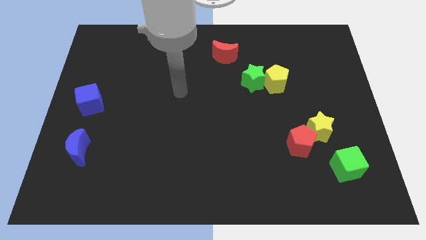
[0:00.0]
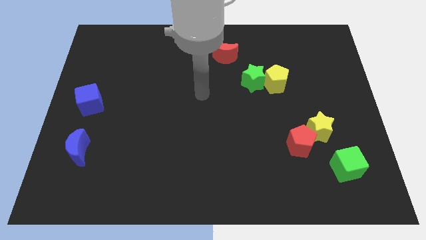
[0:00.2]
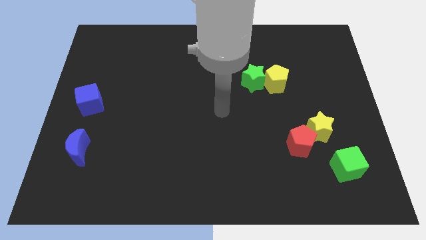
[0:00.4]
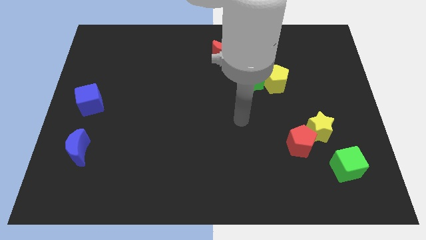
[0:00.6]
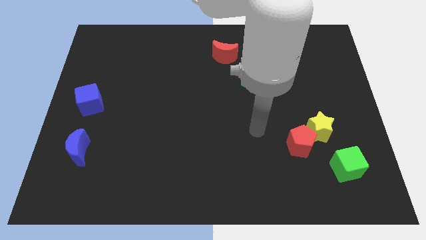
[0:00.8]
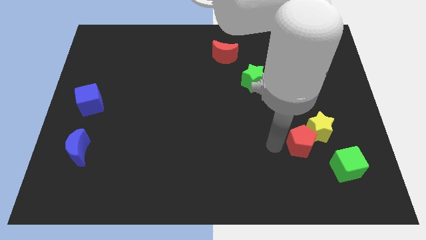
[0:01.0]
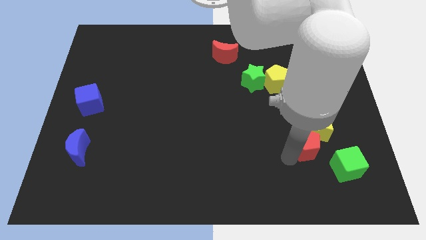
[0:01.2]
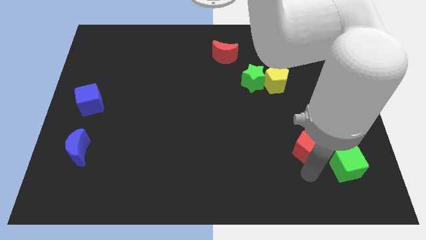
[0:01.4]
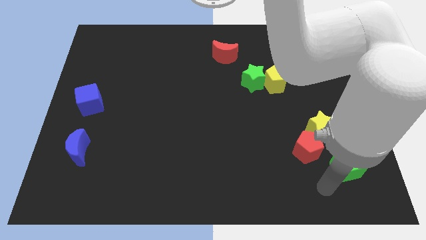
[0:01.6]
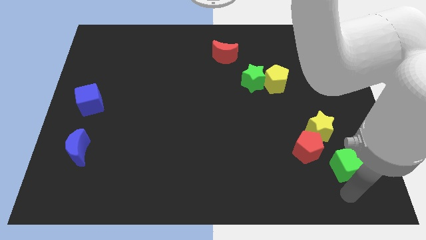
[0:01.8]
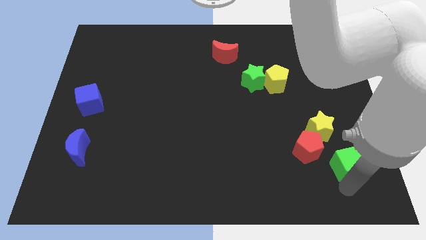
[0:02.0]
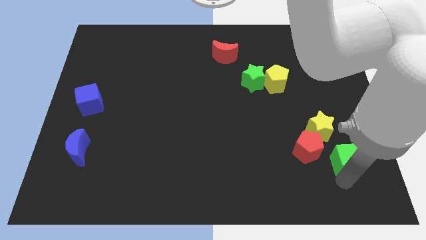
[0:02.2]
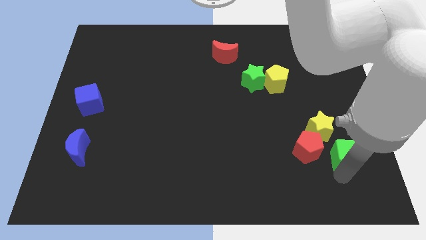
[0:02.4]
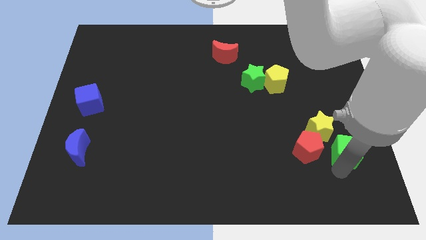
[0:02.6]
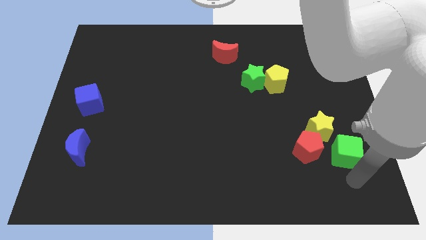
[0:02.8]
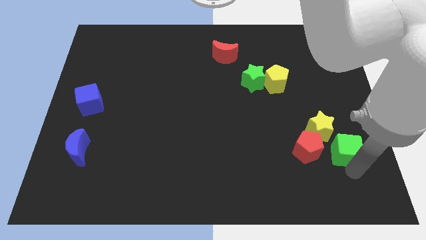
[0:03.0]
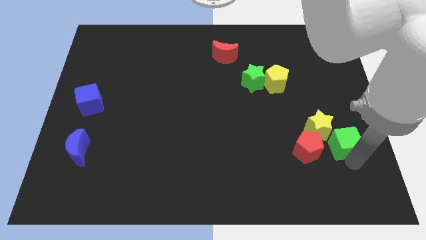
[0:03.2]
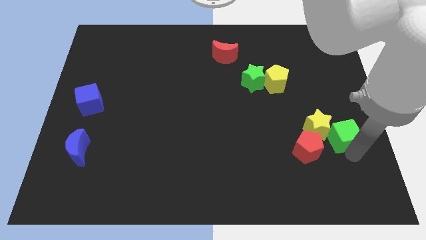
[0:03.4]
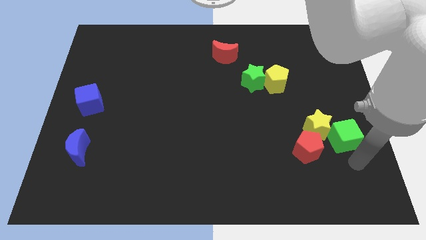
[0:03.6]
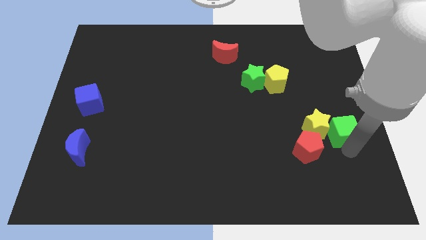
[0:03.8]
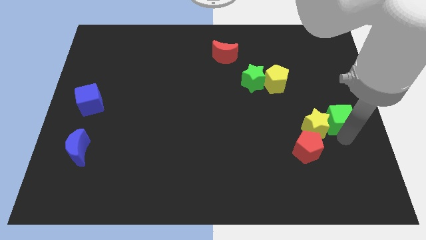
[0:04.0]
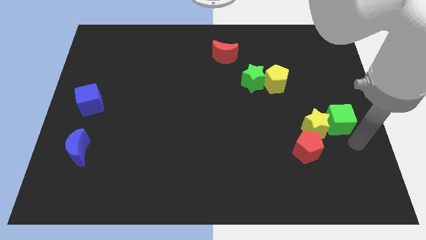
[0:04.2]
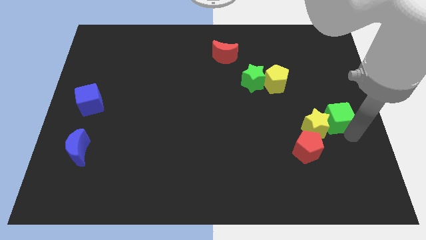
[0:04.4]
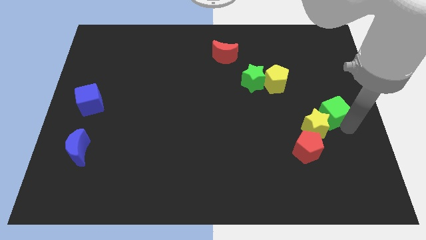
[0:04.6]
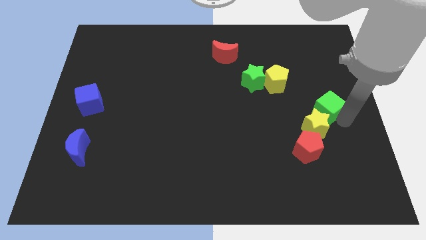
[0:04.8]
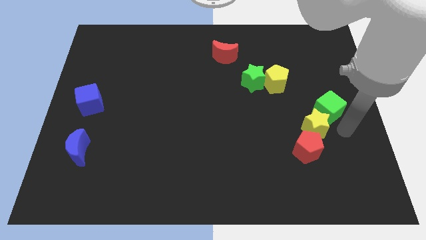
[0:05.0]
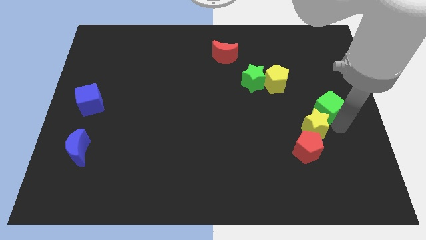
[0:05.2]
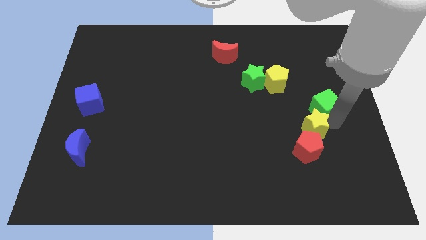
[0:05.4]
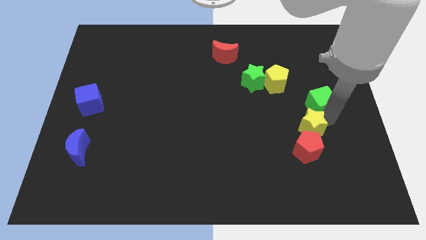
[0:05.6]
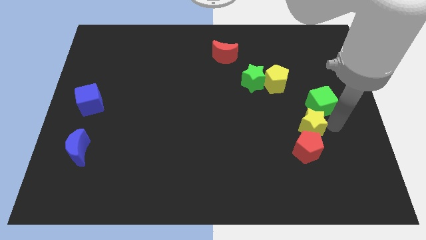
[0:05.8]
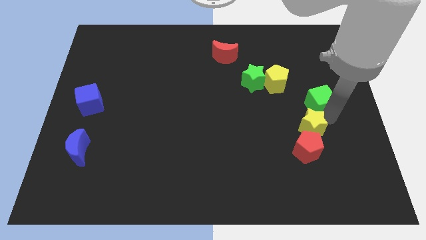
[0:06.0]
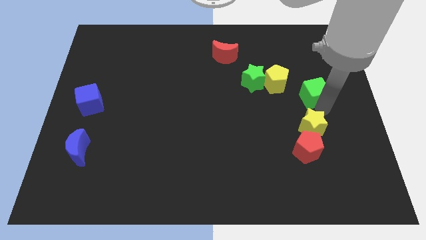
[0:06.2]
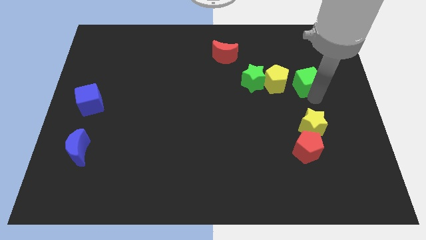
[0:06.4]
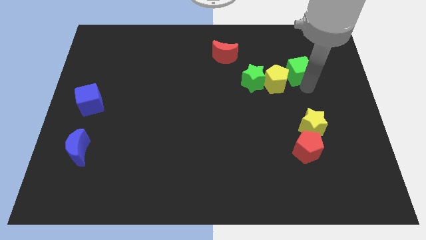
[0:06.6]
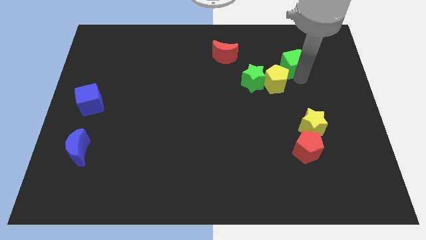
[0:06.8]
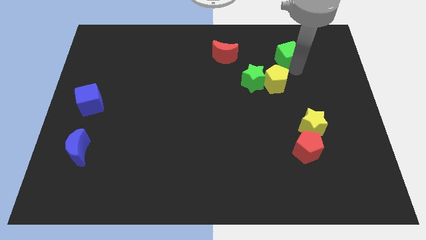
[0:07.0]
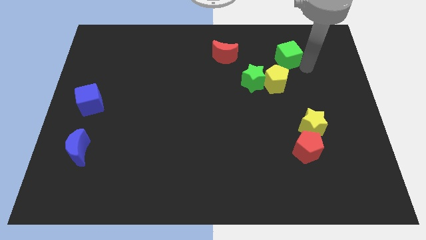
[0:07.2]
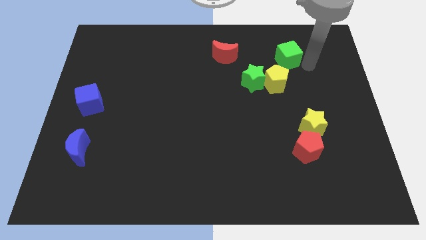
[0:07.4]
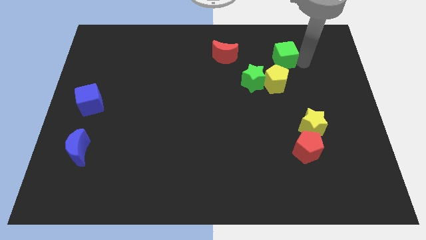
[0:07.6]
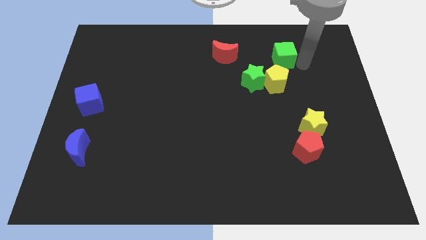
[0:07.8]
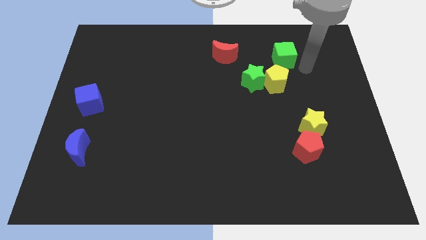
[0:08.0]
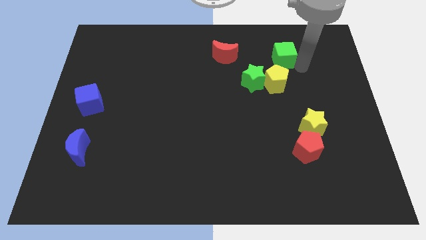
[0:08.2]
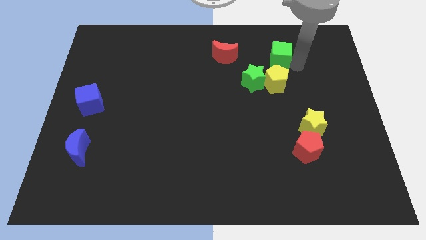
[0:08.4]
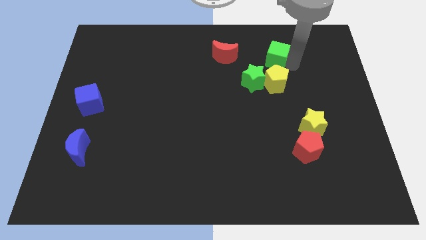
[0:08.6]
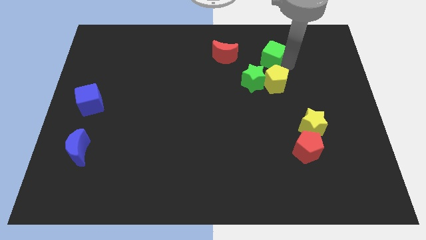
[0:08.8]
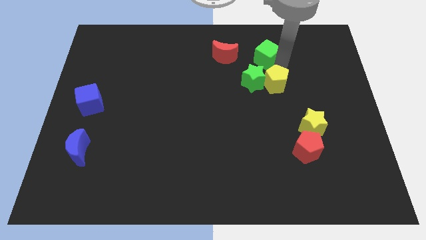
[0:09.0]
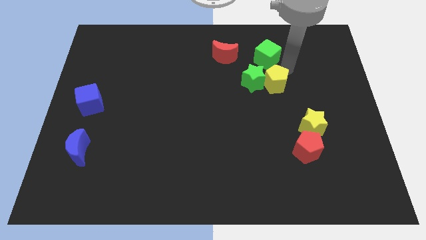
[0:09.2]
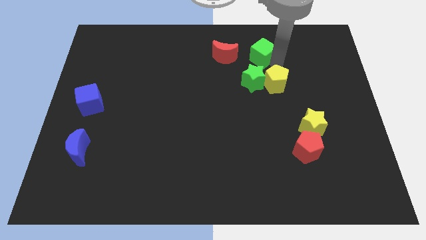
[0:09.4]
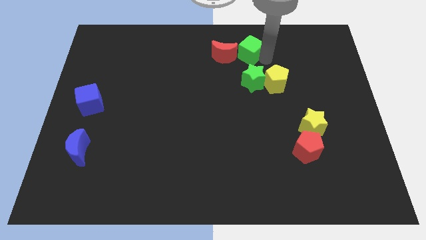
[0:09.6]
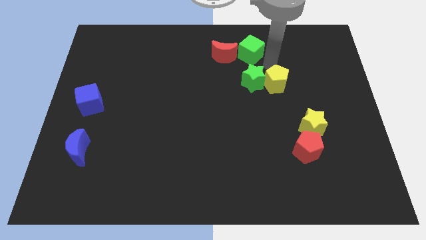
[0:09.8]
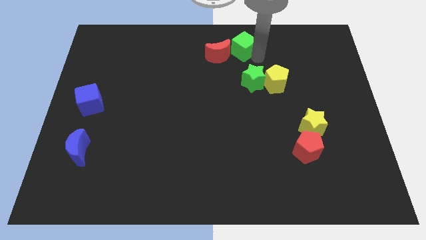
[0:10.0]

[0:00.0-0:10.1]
push the green cube to the top

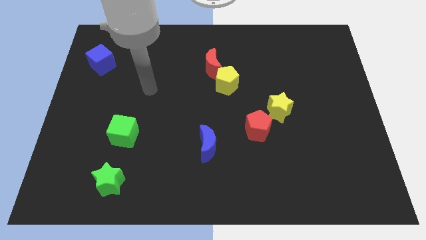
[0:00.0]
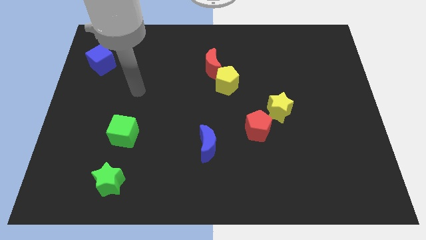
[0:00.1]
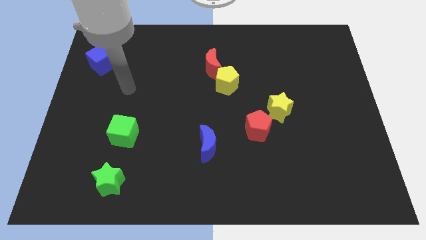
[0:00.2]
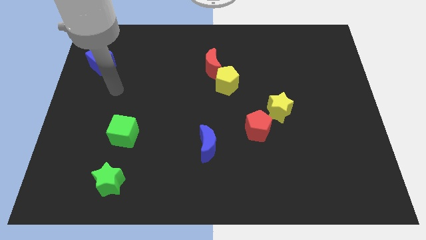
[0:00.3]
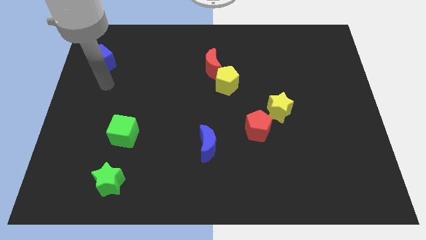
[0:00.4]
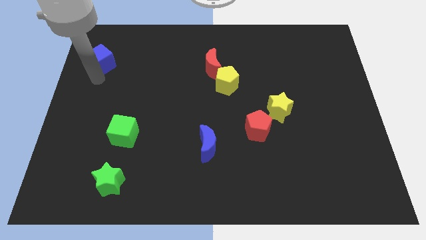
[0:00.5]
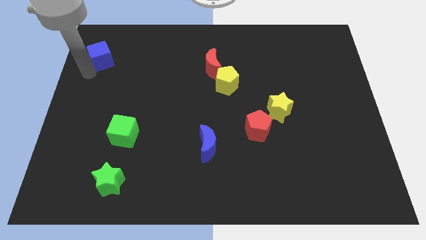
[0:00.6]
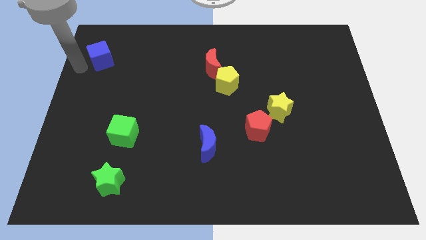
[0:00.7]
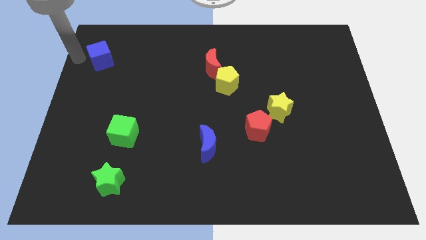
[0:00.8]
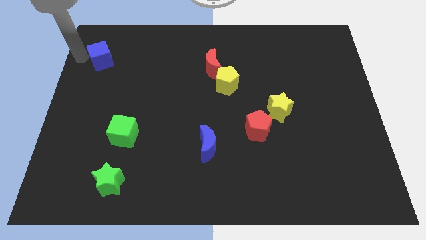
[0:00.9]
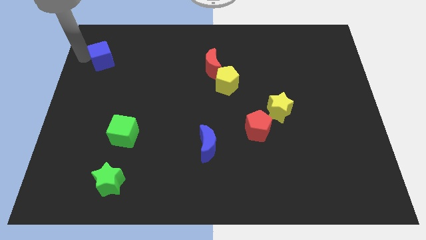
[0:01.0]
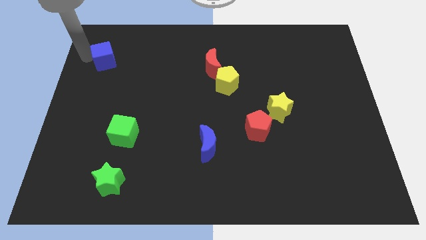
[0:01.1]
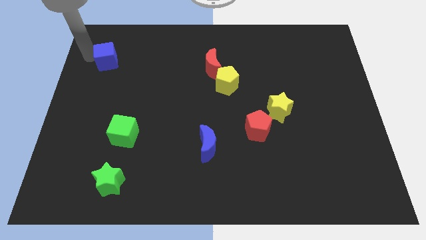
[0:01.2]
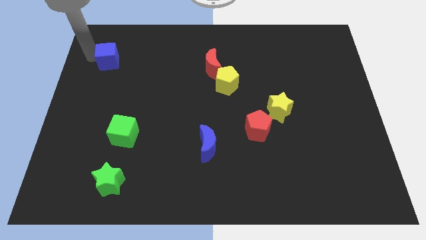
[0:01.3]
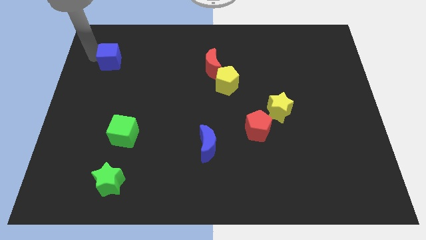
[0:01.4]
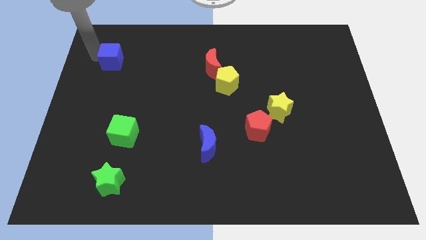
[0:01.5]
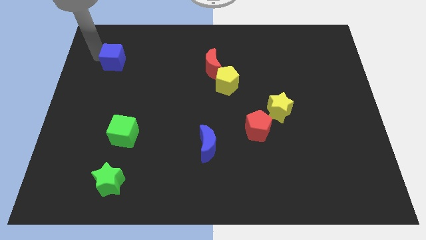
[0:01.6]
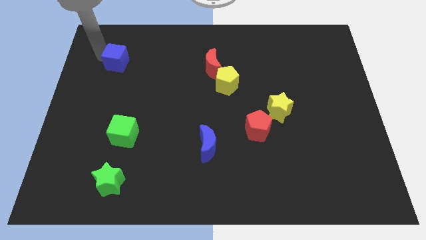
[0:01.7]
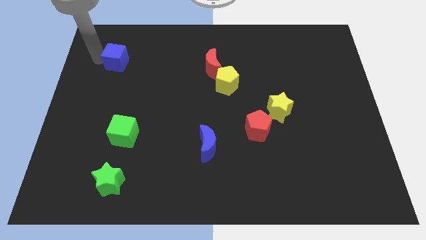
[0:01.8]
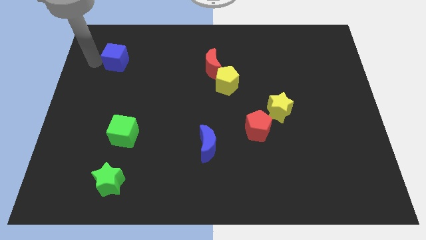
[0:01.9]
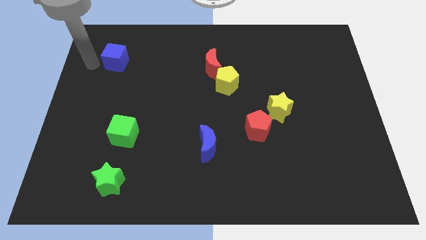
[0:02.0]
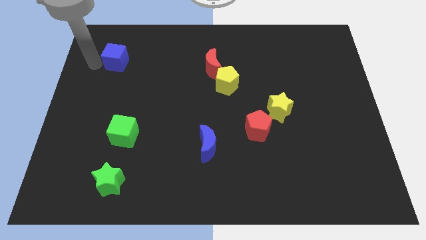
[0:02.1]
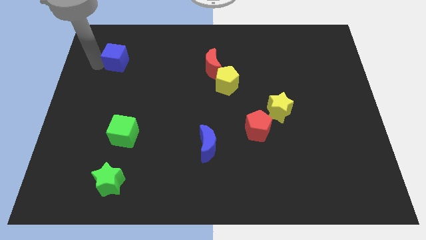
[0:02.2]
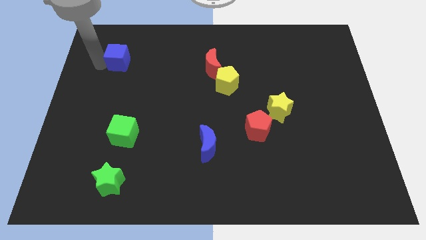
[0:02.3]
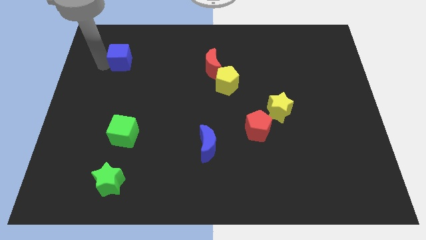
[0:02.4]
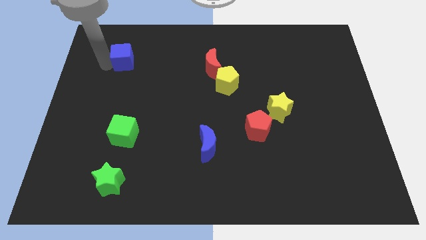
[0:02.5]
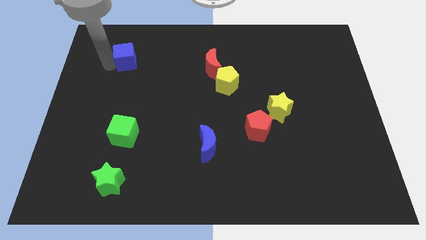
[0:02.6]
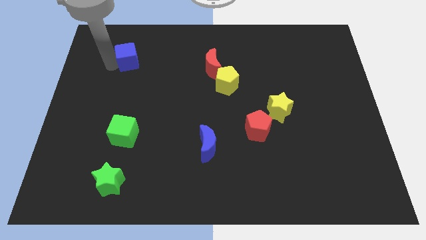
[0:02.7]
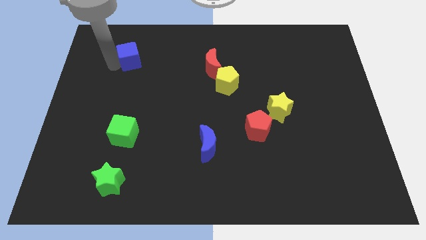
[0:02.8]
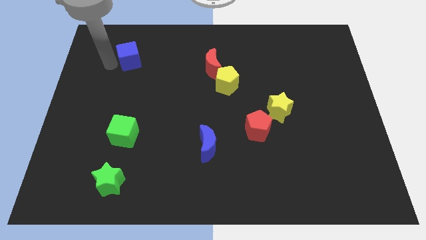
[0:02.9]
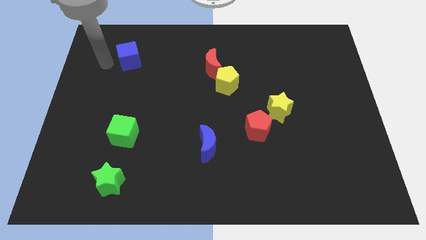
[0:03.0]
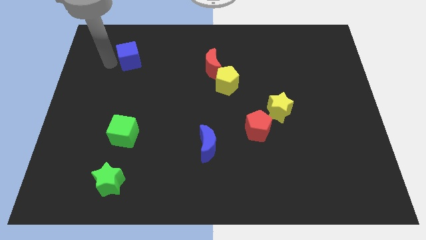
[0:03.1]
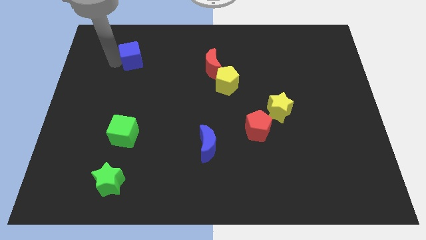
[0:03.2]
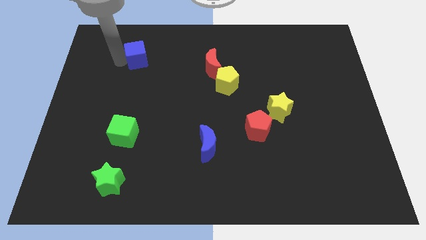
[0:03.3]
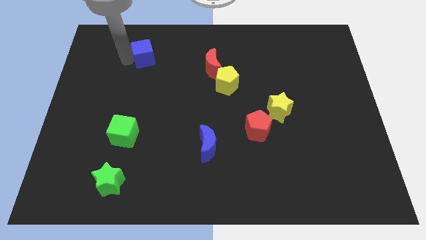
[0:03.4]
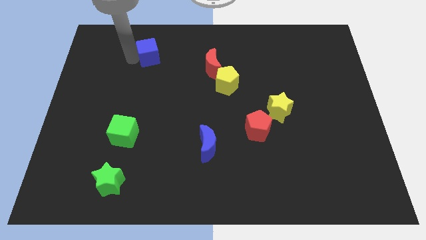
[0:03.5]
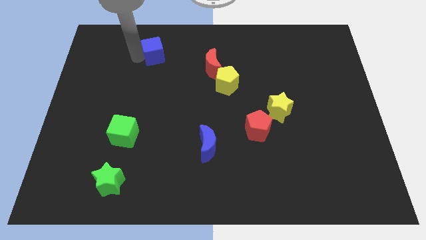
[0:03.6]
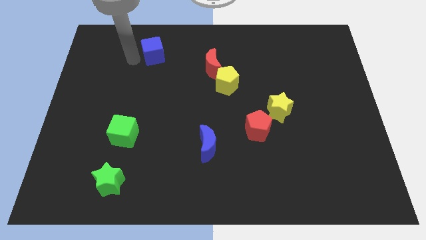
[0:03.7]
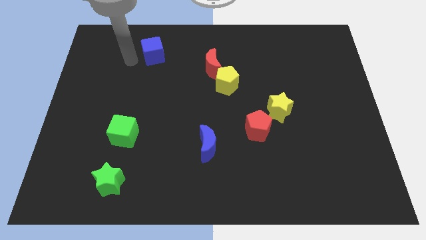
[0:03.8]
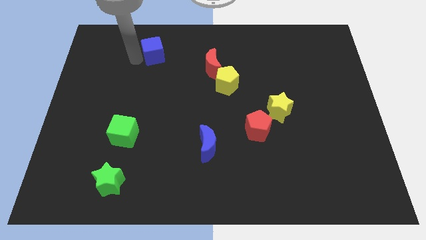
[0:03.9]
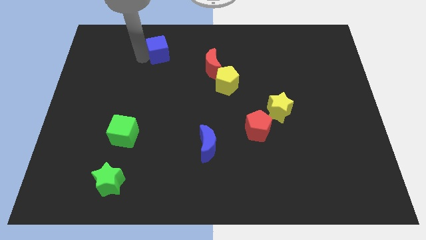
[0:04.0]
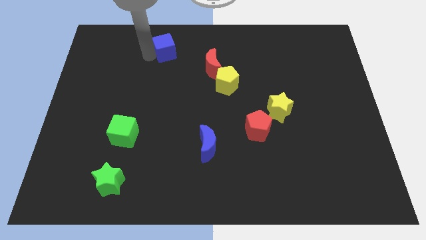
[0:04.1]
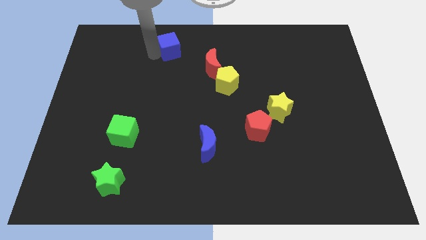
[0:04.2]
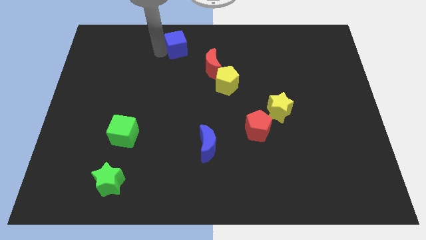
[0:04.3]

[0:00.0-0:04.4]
put the blue cube to the top side
